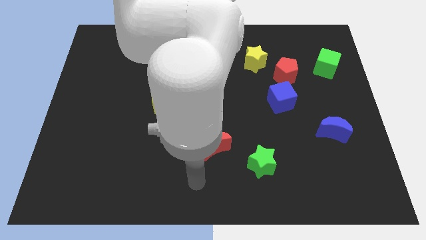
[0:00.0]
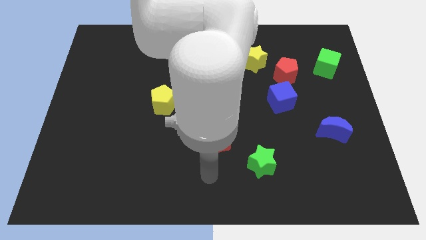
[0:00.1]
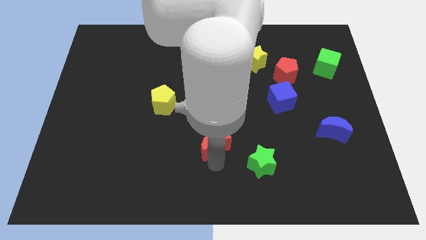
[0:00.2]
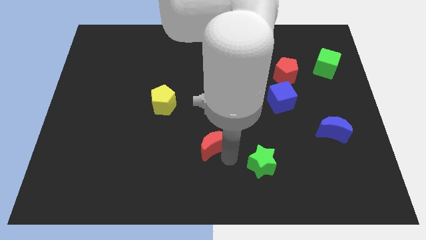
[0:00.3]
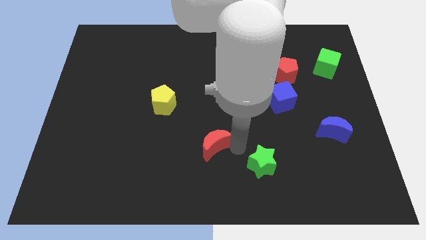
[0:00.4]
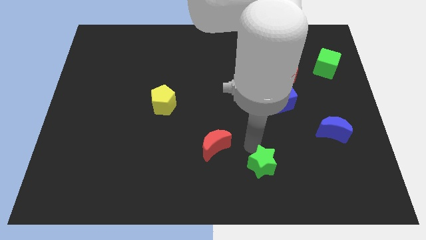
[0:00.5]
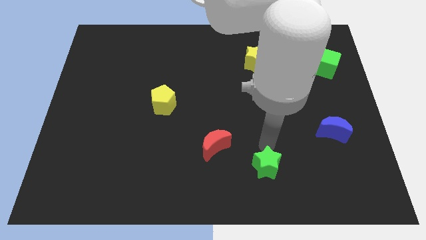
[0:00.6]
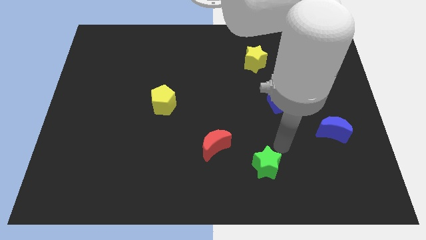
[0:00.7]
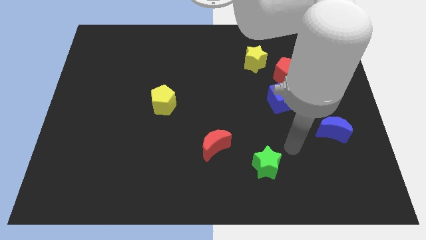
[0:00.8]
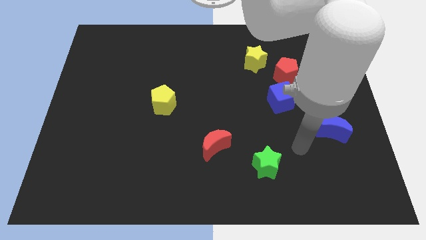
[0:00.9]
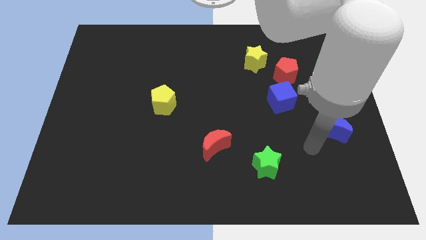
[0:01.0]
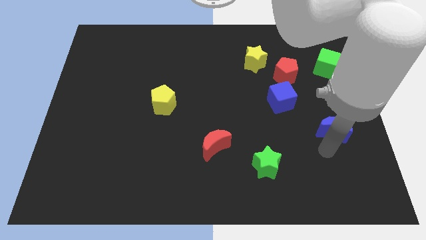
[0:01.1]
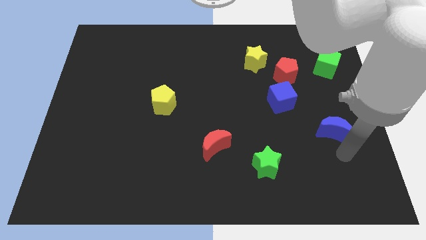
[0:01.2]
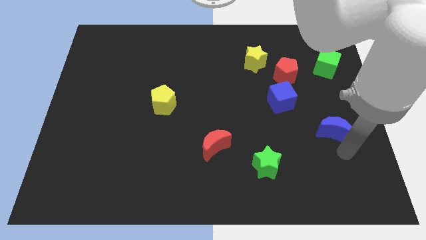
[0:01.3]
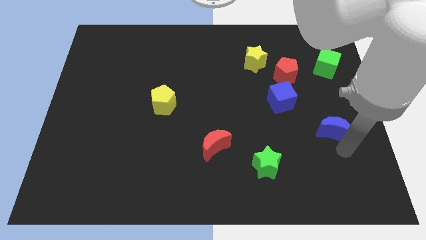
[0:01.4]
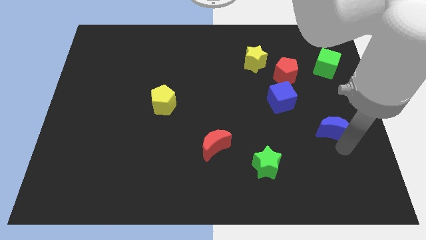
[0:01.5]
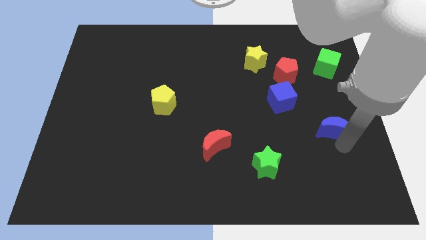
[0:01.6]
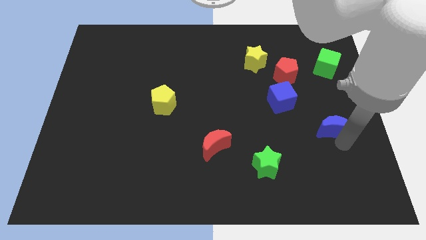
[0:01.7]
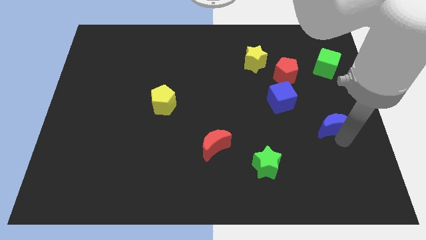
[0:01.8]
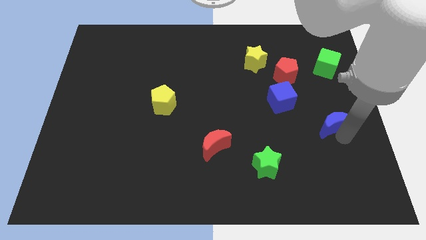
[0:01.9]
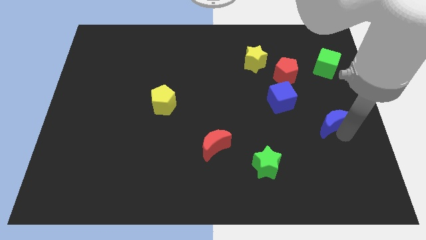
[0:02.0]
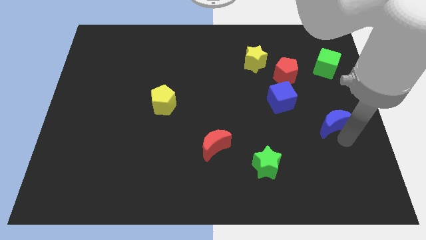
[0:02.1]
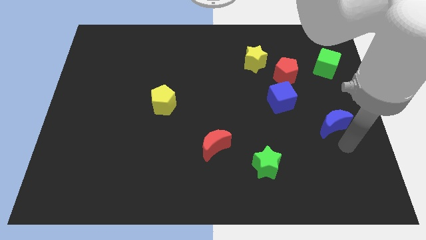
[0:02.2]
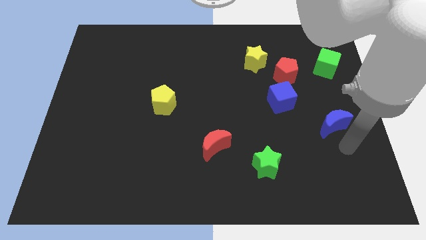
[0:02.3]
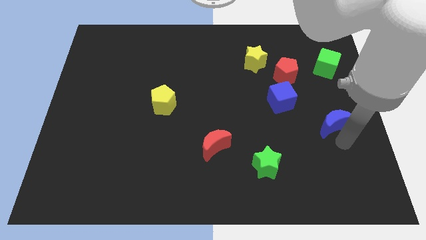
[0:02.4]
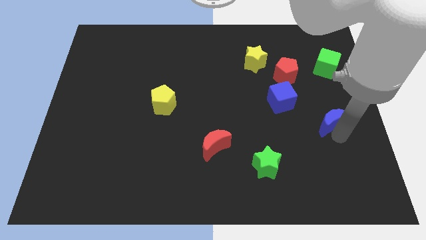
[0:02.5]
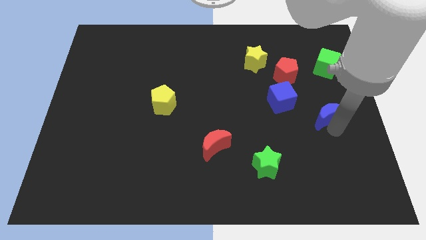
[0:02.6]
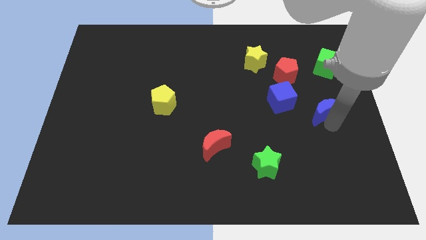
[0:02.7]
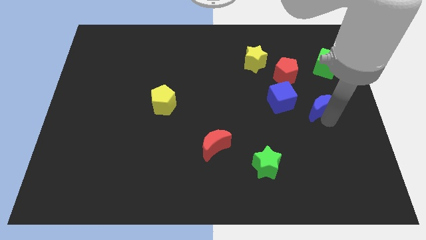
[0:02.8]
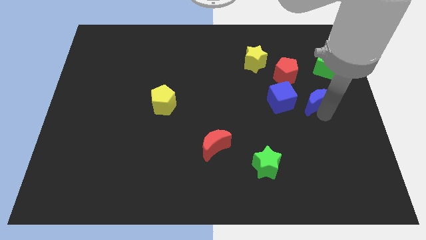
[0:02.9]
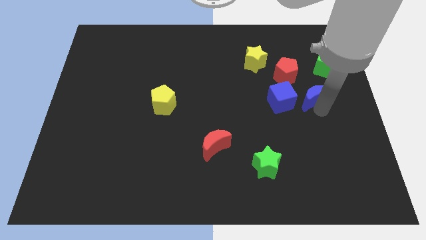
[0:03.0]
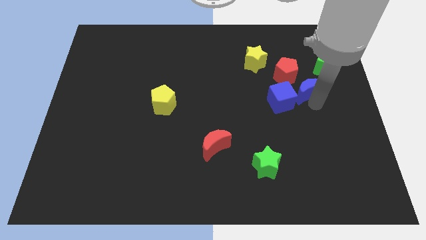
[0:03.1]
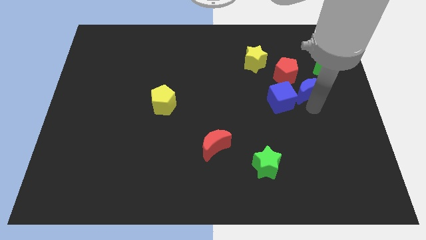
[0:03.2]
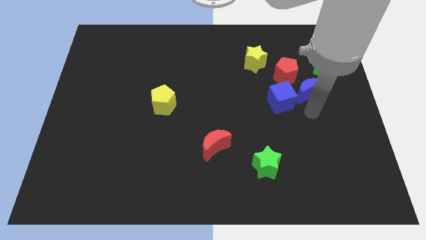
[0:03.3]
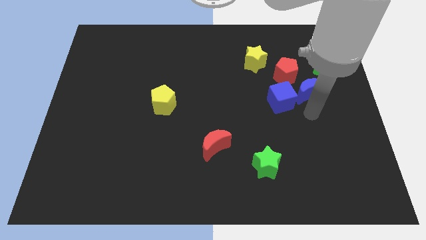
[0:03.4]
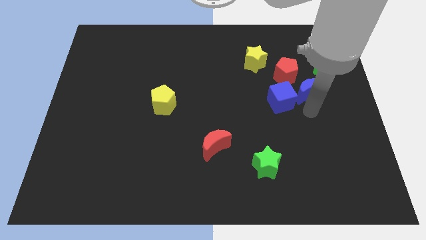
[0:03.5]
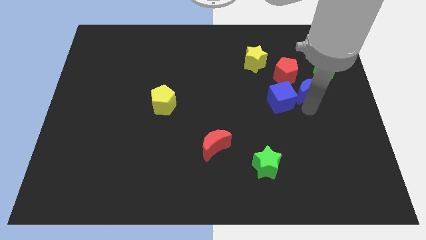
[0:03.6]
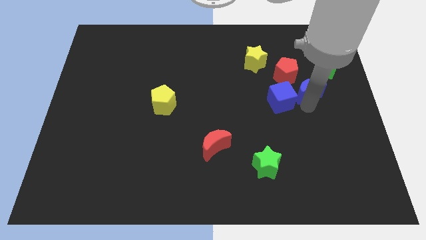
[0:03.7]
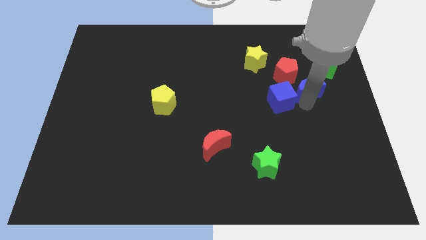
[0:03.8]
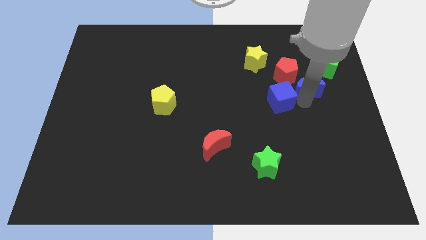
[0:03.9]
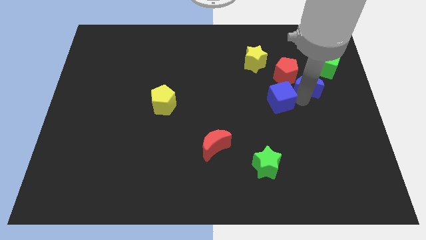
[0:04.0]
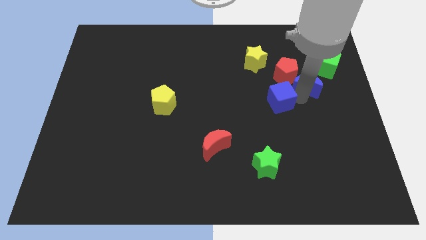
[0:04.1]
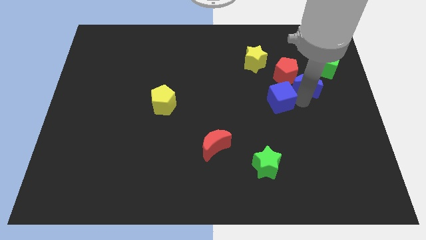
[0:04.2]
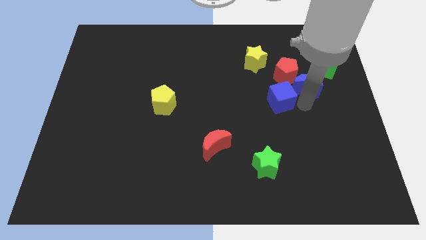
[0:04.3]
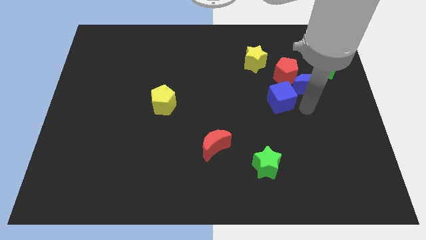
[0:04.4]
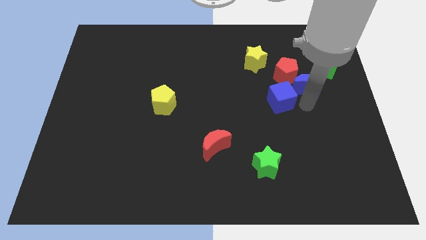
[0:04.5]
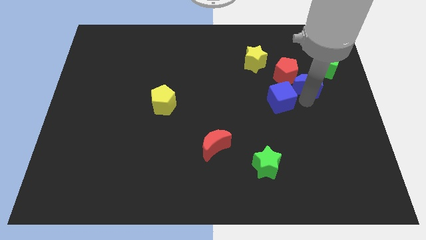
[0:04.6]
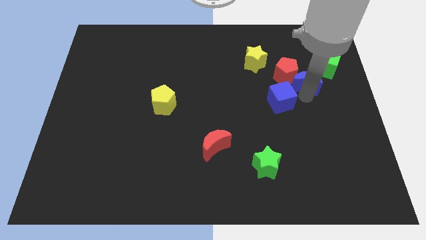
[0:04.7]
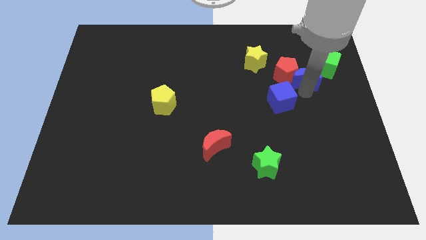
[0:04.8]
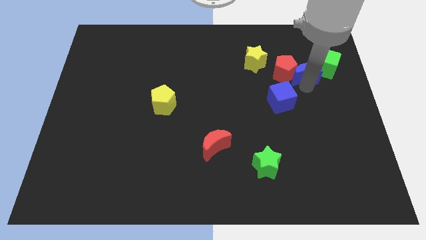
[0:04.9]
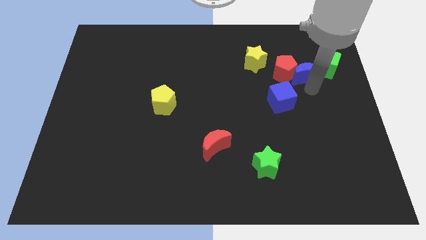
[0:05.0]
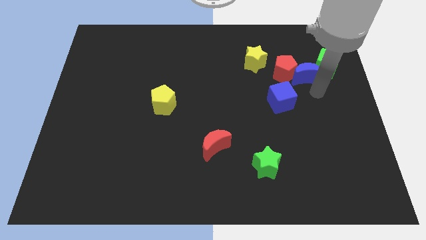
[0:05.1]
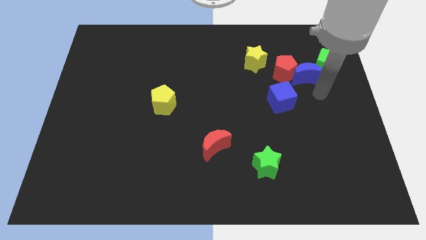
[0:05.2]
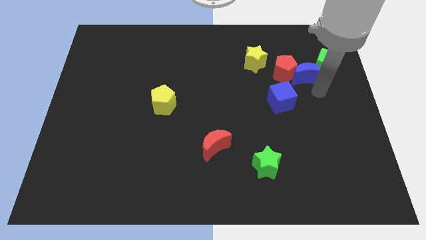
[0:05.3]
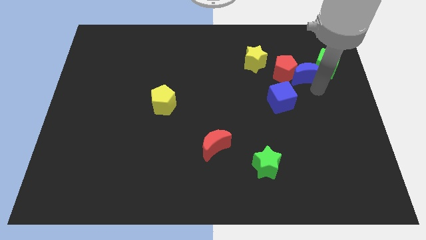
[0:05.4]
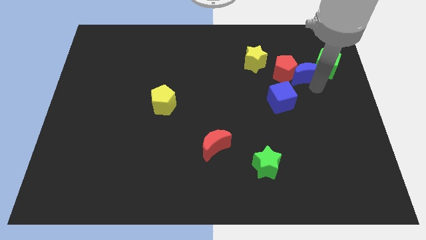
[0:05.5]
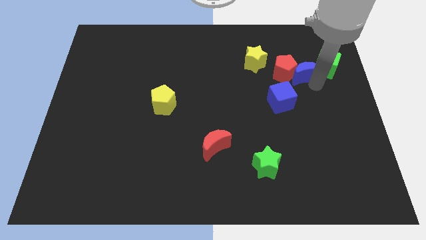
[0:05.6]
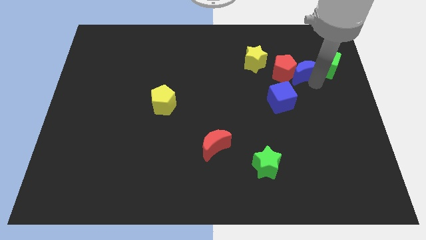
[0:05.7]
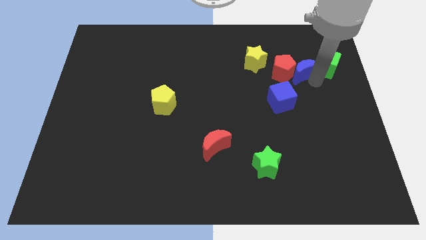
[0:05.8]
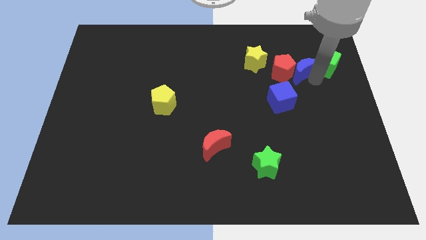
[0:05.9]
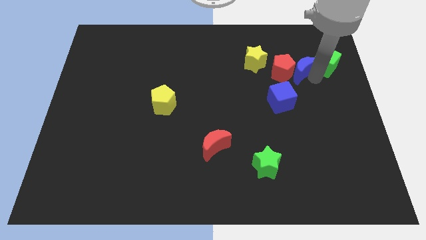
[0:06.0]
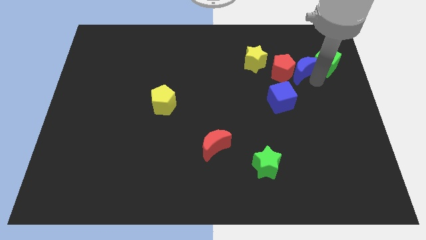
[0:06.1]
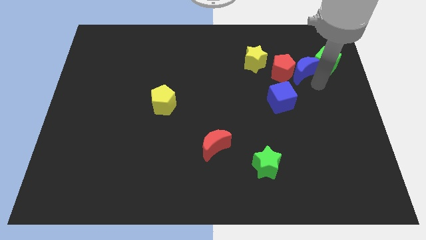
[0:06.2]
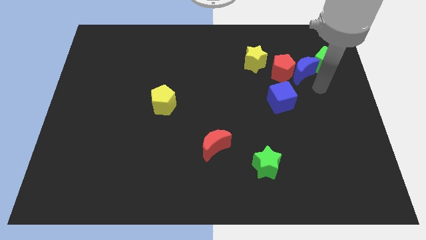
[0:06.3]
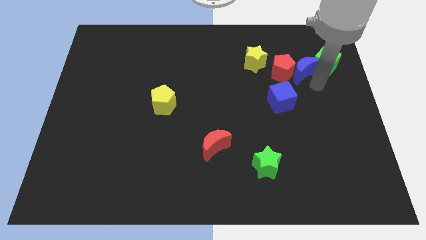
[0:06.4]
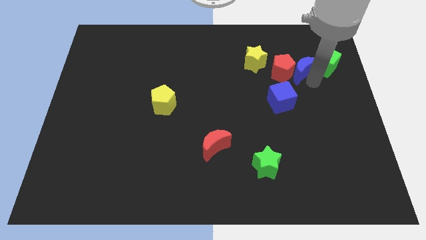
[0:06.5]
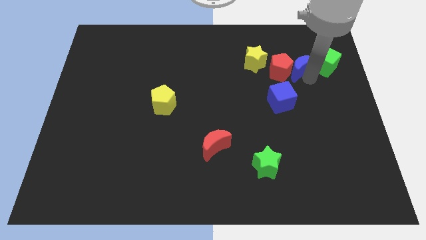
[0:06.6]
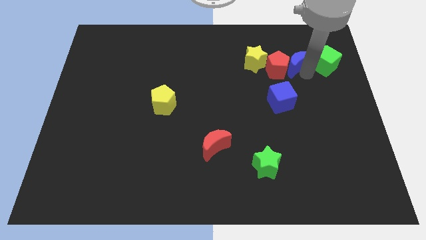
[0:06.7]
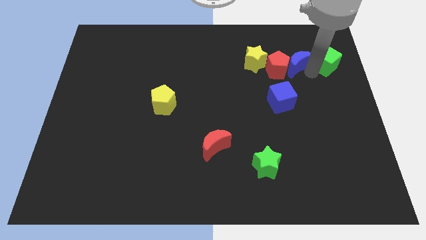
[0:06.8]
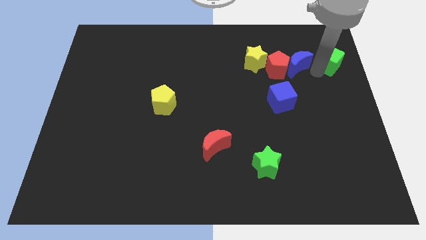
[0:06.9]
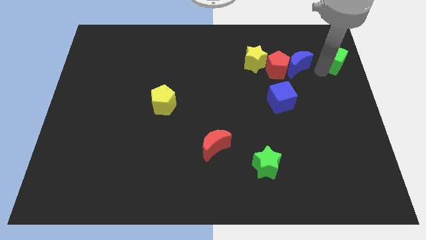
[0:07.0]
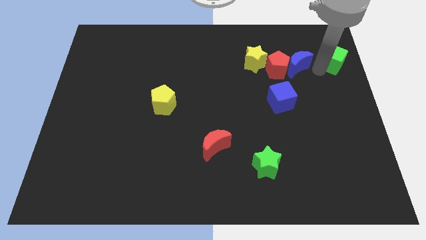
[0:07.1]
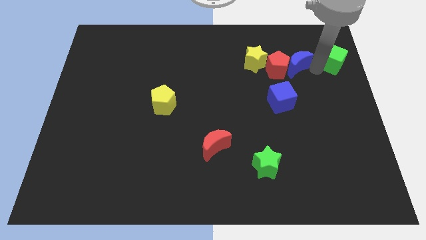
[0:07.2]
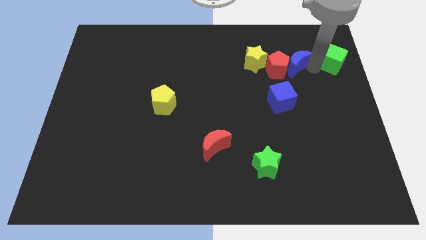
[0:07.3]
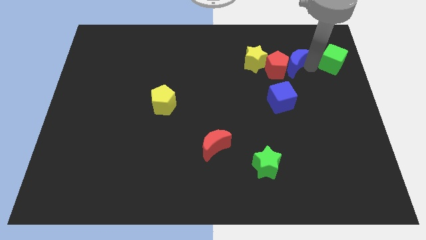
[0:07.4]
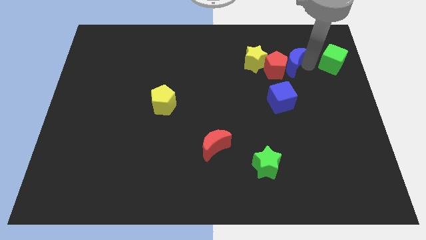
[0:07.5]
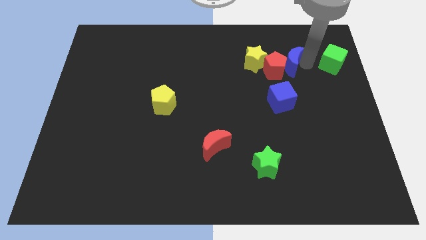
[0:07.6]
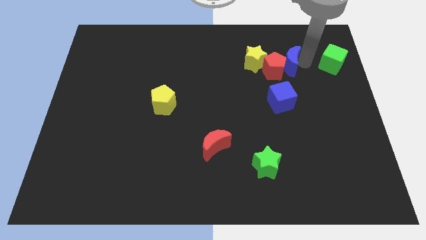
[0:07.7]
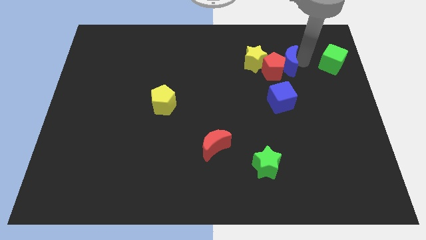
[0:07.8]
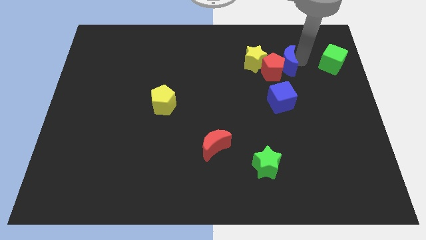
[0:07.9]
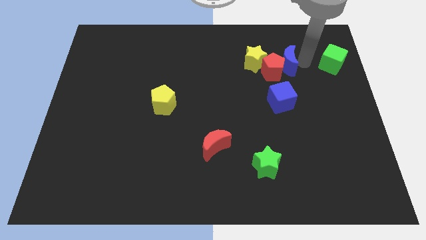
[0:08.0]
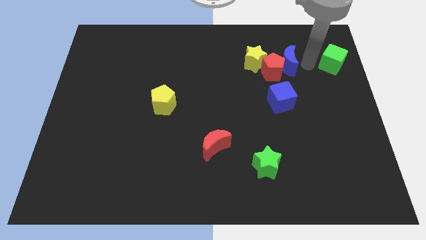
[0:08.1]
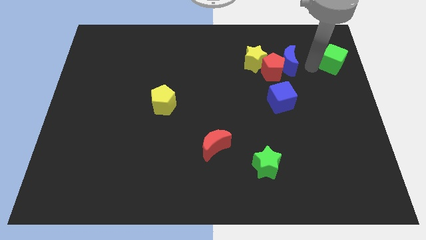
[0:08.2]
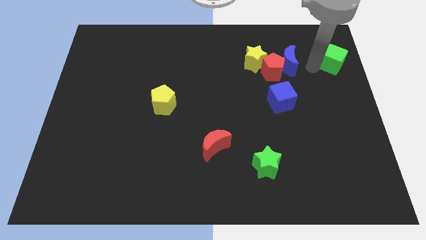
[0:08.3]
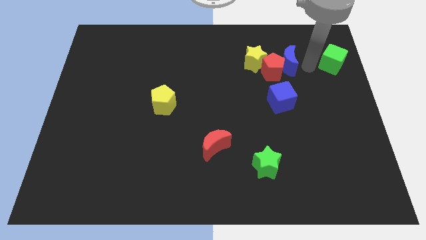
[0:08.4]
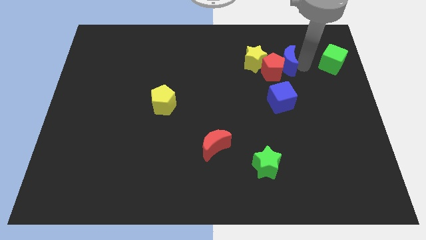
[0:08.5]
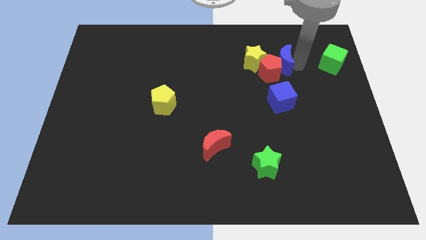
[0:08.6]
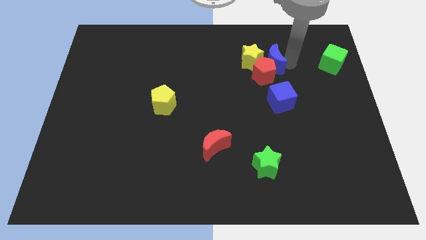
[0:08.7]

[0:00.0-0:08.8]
move the blue moon towards the yellow star
